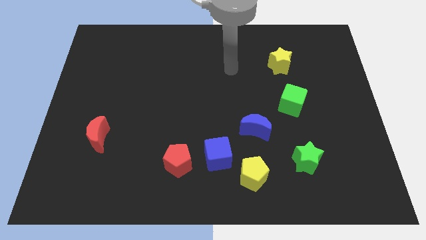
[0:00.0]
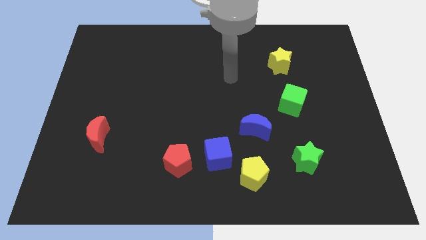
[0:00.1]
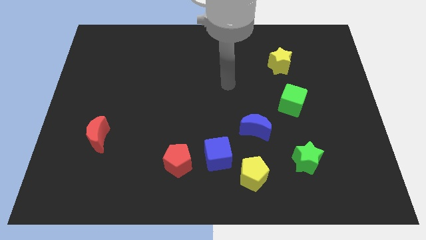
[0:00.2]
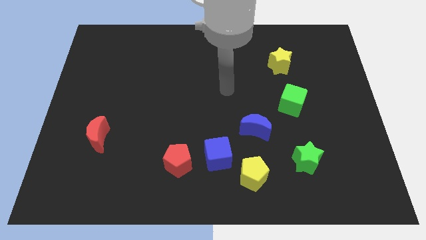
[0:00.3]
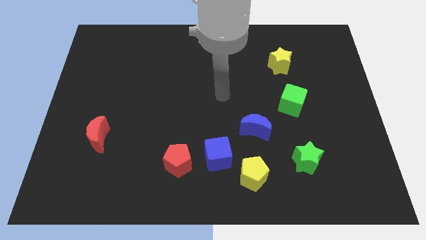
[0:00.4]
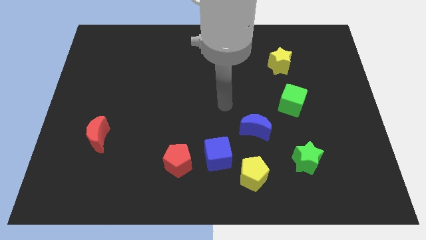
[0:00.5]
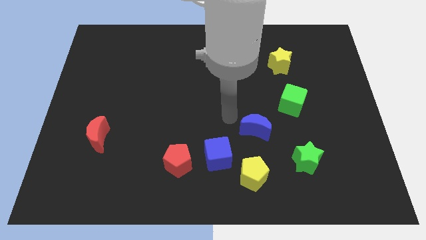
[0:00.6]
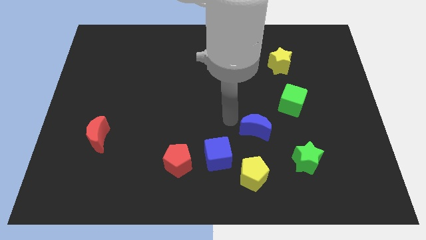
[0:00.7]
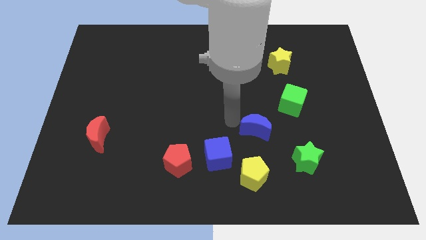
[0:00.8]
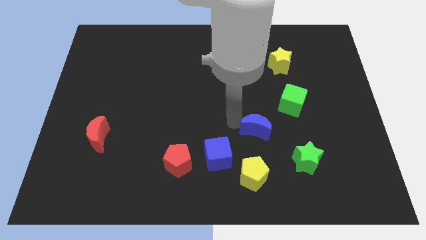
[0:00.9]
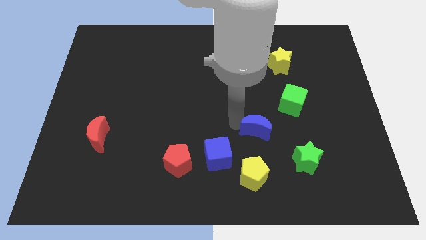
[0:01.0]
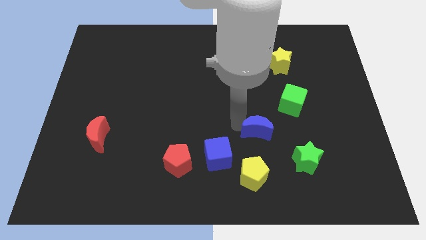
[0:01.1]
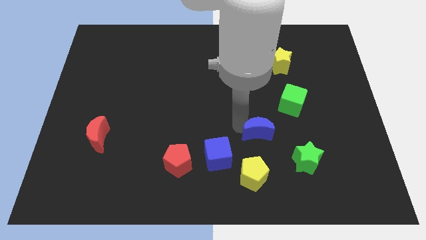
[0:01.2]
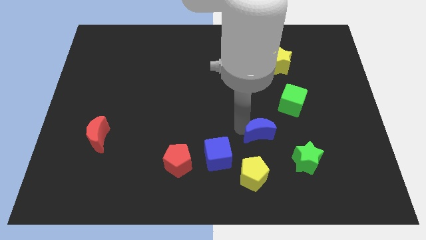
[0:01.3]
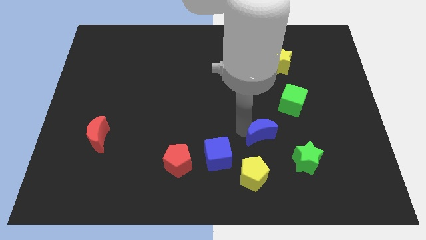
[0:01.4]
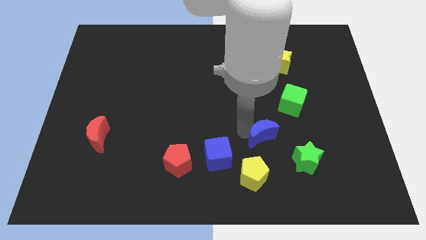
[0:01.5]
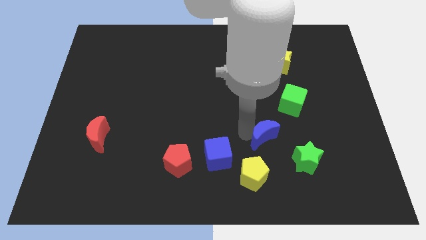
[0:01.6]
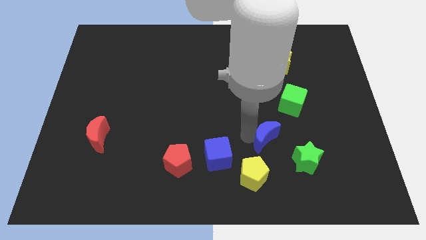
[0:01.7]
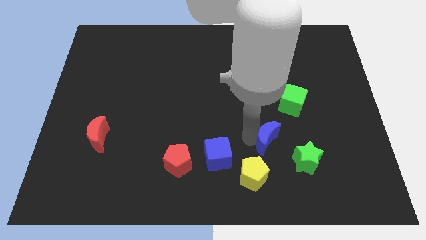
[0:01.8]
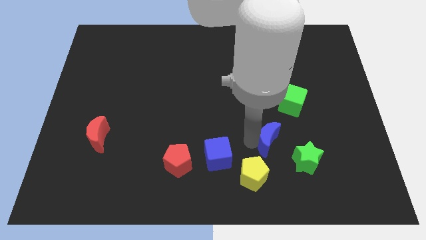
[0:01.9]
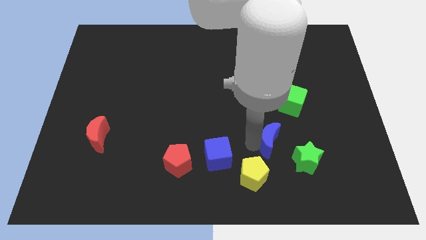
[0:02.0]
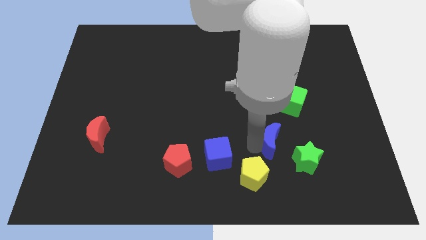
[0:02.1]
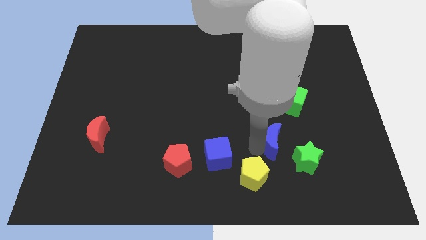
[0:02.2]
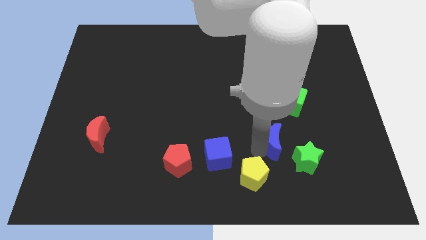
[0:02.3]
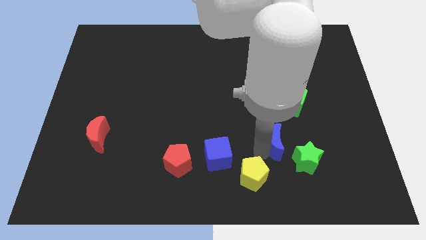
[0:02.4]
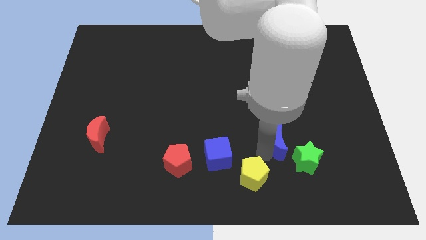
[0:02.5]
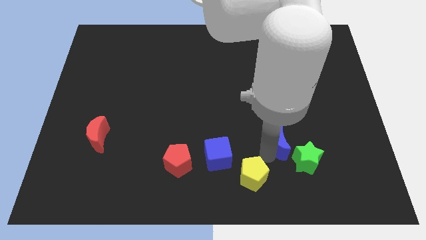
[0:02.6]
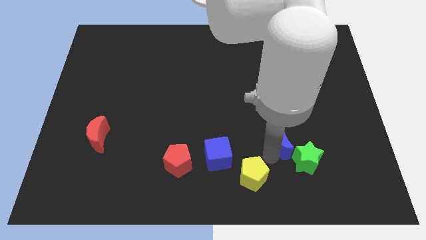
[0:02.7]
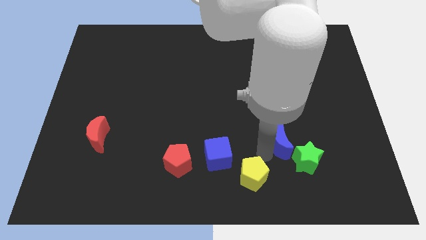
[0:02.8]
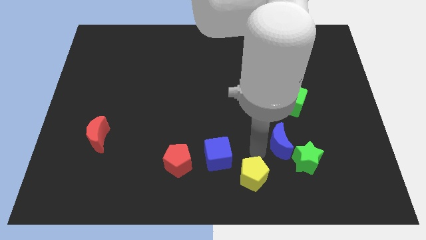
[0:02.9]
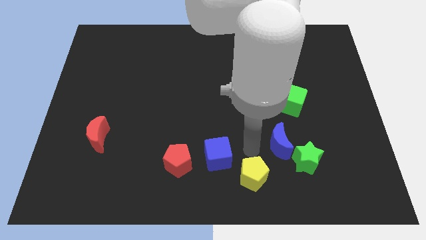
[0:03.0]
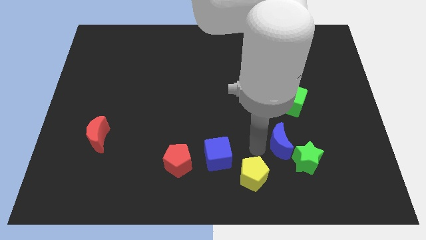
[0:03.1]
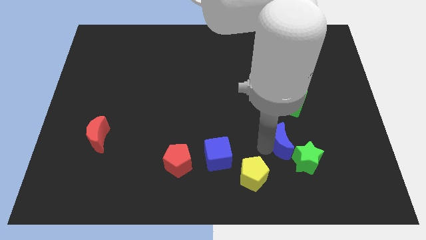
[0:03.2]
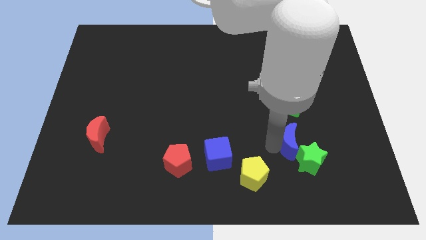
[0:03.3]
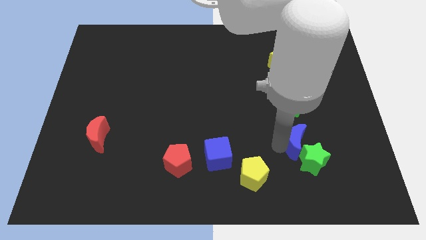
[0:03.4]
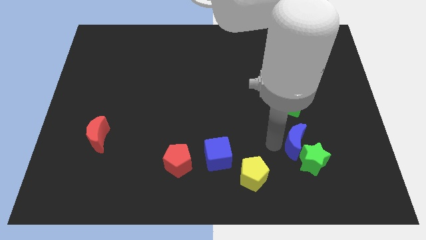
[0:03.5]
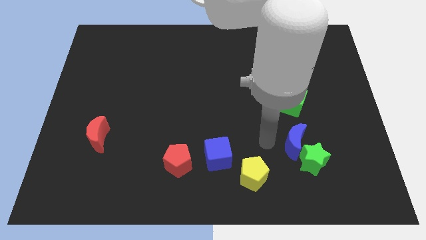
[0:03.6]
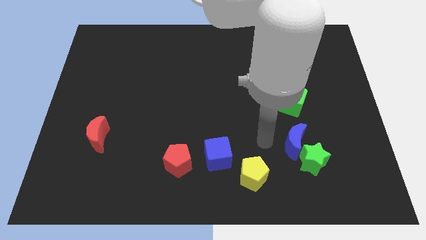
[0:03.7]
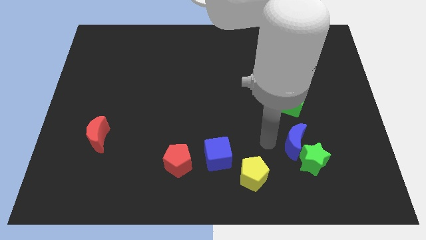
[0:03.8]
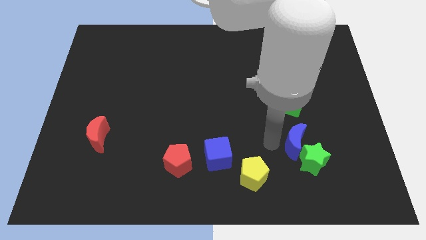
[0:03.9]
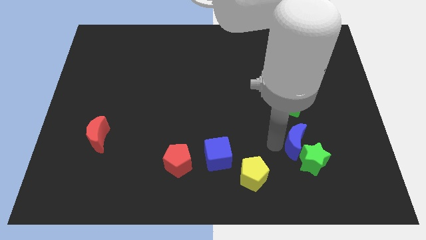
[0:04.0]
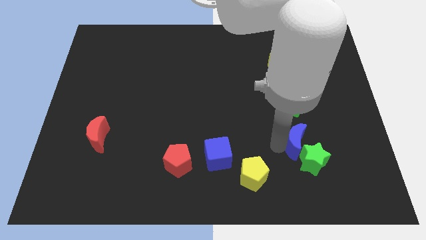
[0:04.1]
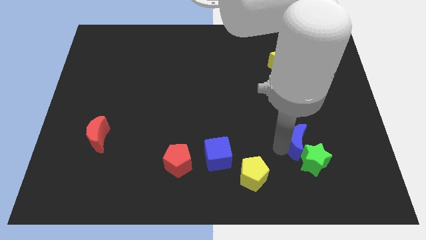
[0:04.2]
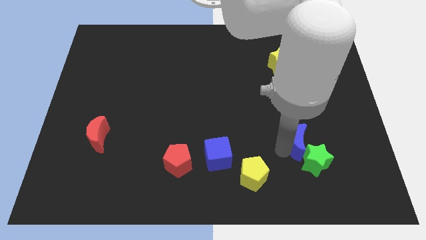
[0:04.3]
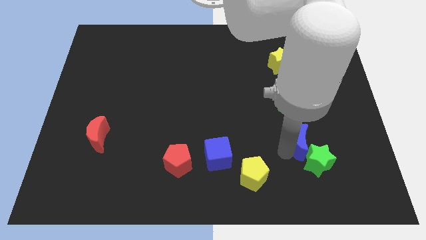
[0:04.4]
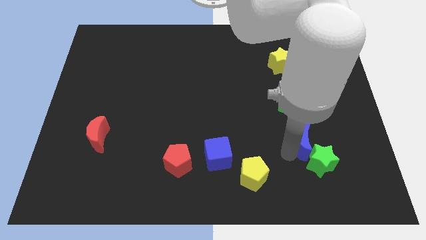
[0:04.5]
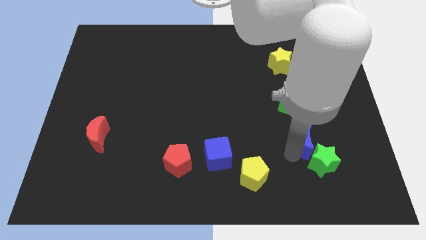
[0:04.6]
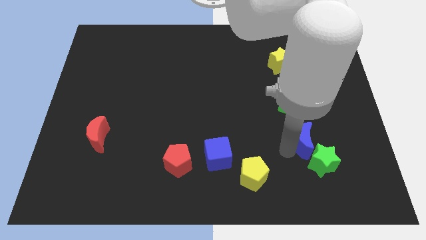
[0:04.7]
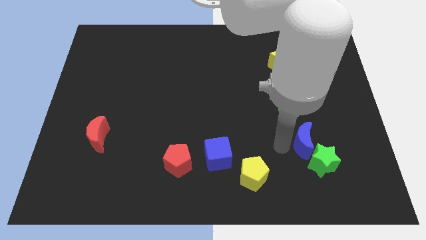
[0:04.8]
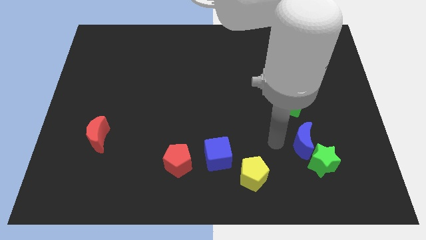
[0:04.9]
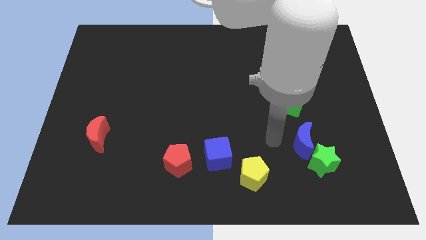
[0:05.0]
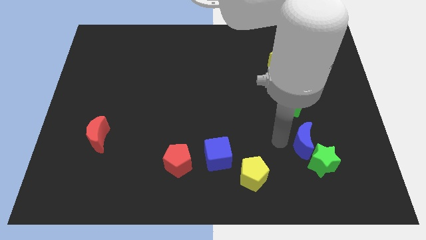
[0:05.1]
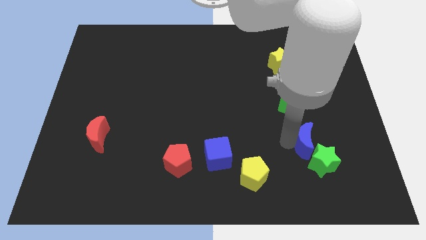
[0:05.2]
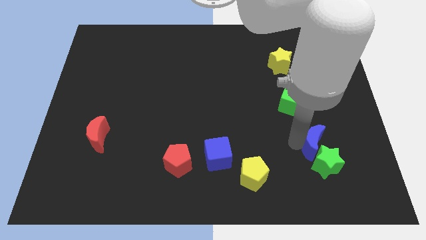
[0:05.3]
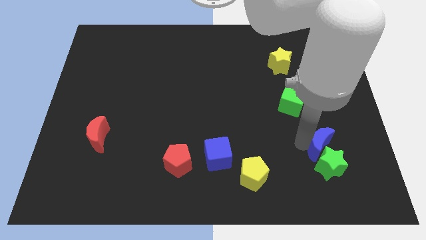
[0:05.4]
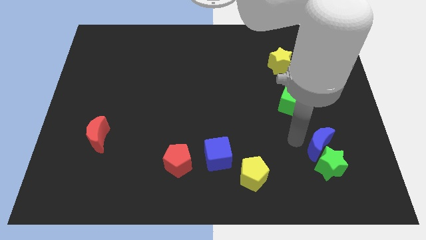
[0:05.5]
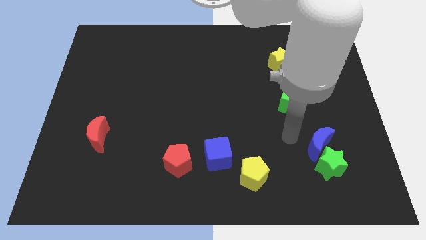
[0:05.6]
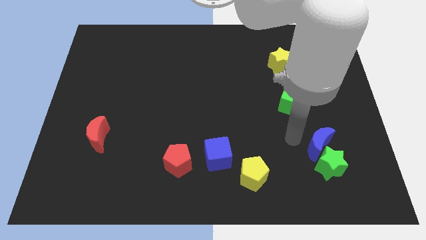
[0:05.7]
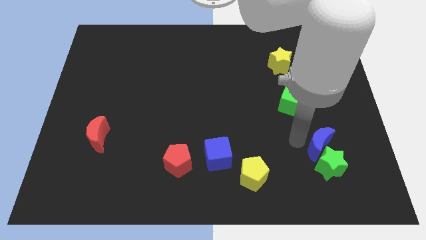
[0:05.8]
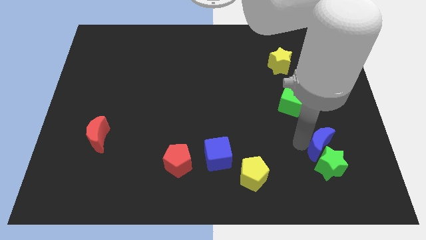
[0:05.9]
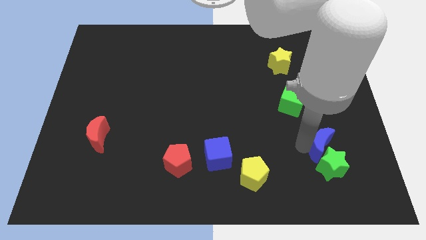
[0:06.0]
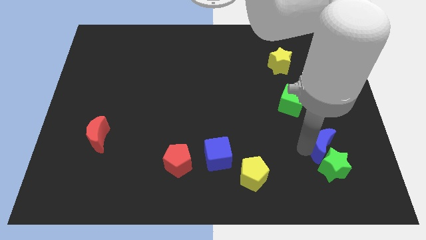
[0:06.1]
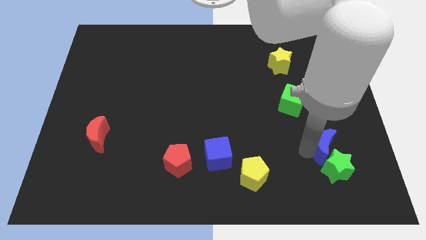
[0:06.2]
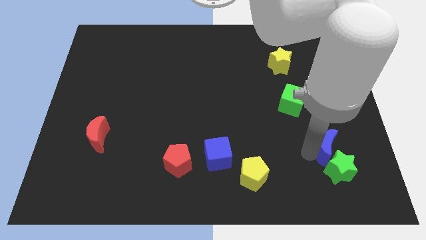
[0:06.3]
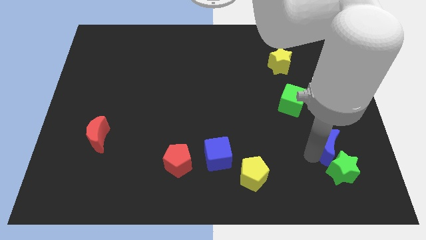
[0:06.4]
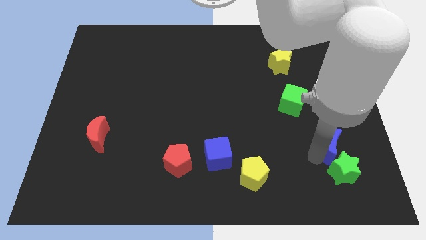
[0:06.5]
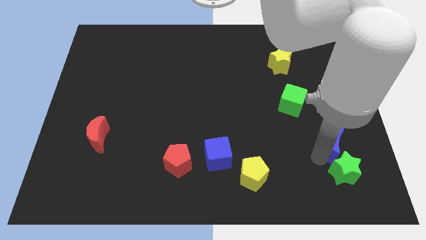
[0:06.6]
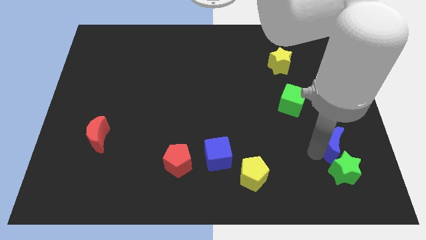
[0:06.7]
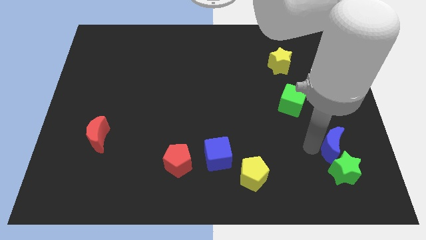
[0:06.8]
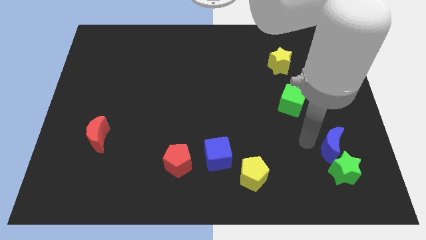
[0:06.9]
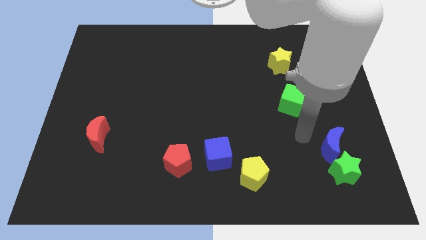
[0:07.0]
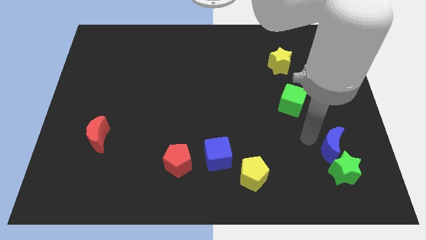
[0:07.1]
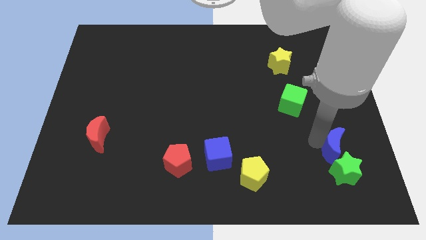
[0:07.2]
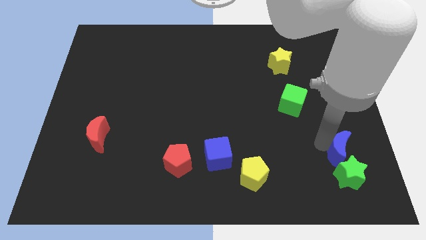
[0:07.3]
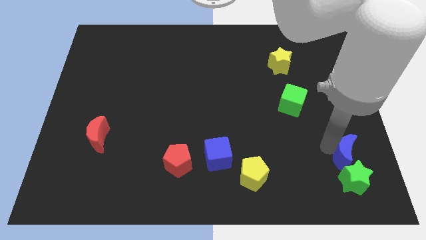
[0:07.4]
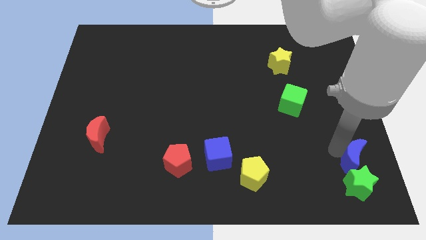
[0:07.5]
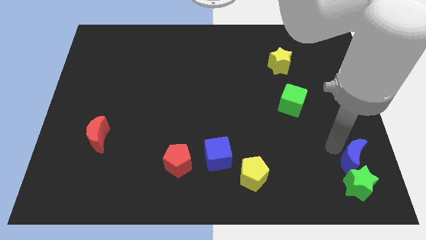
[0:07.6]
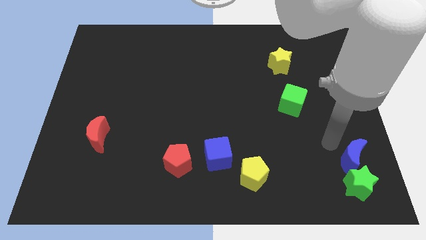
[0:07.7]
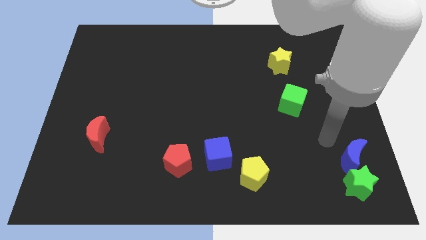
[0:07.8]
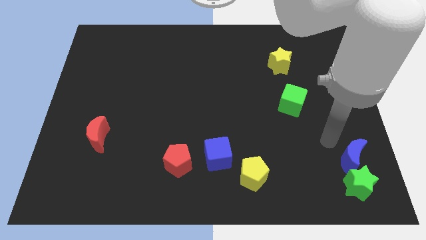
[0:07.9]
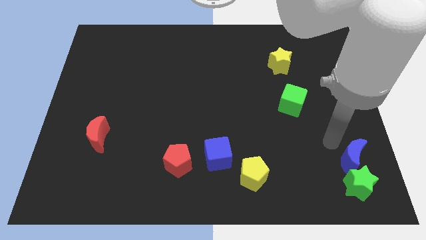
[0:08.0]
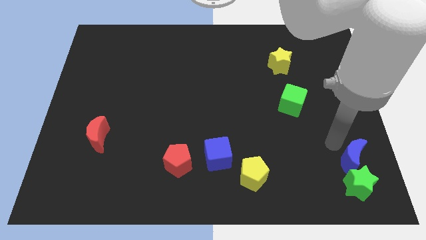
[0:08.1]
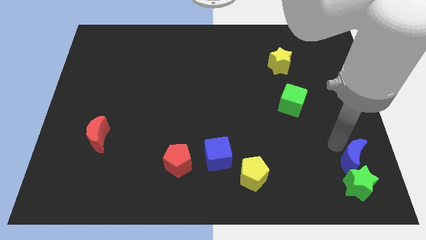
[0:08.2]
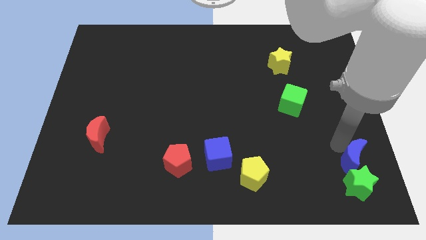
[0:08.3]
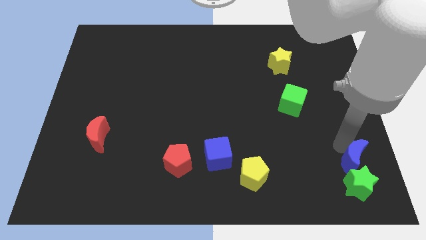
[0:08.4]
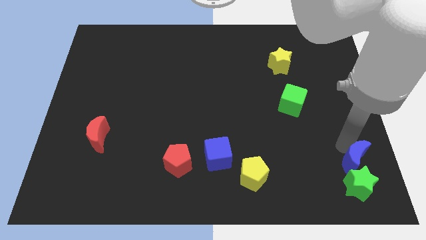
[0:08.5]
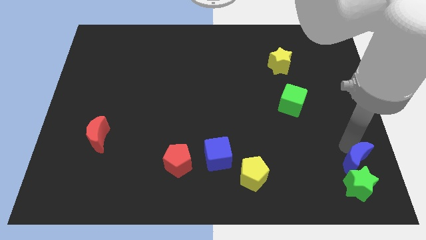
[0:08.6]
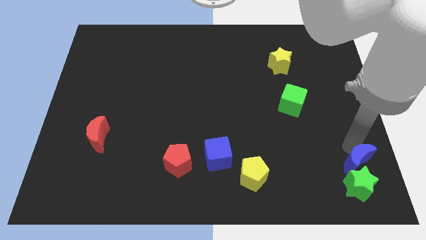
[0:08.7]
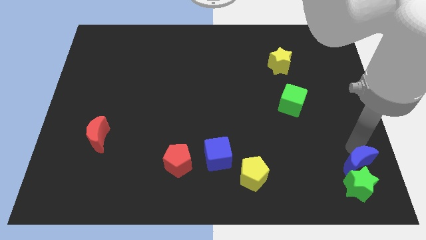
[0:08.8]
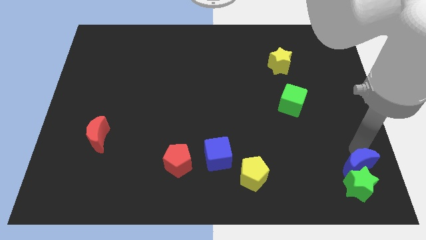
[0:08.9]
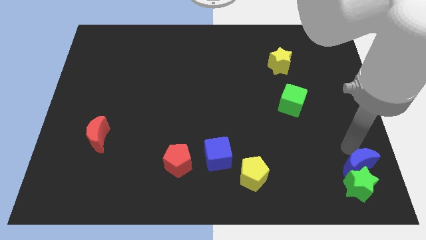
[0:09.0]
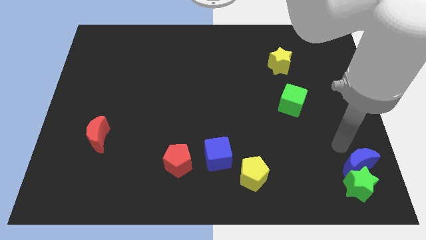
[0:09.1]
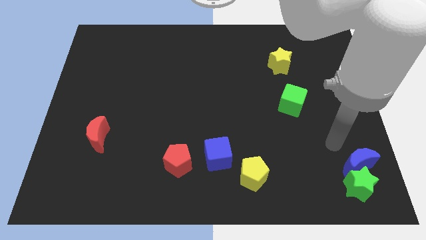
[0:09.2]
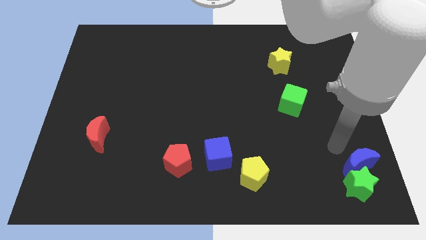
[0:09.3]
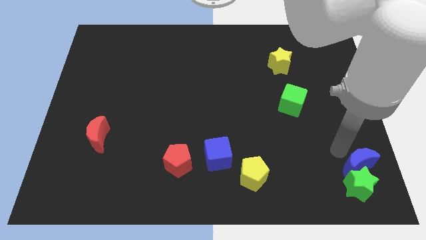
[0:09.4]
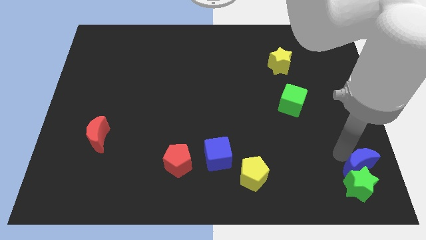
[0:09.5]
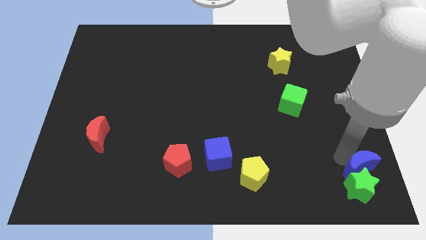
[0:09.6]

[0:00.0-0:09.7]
move the blue moon to the bottom right
